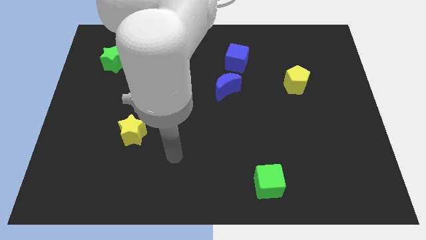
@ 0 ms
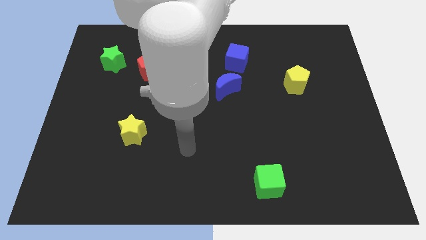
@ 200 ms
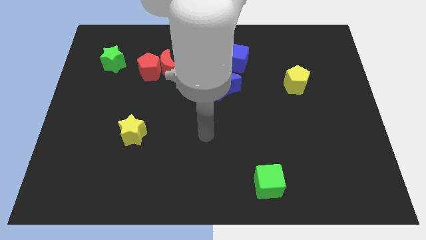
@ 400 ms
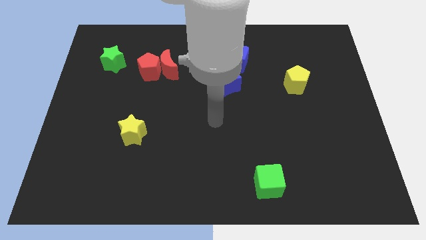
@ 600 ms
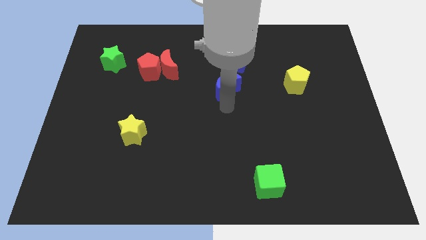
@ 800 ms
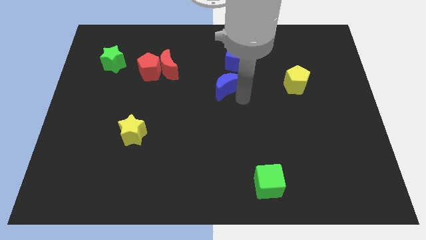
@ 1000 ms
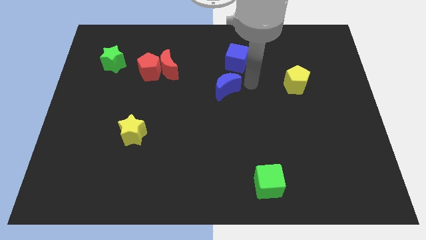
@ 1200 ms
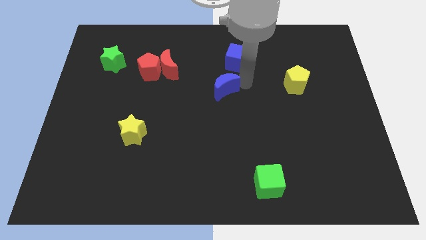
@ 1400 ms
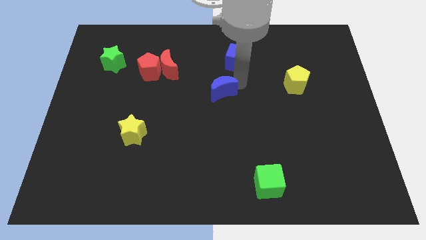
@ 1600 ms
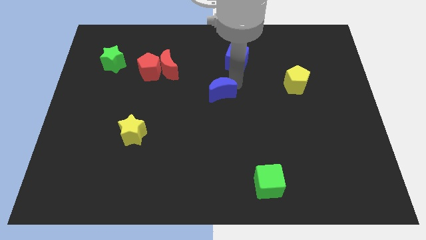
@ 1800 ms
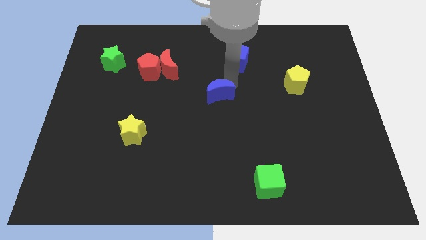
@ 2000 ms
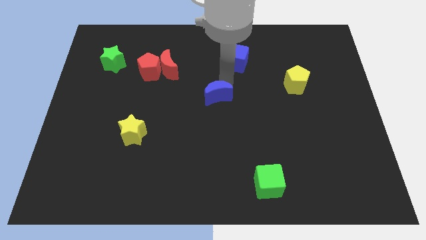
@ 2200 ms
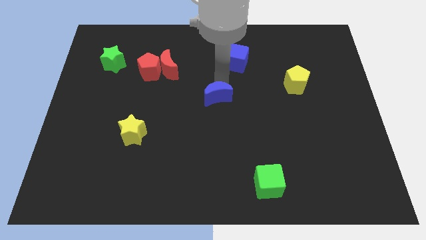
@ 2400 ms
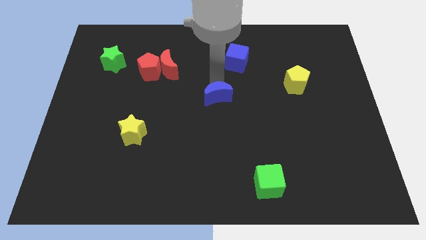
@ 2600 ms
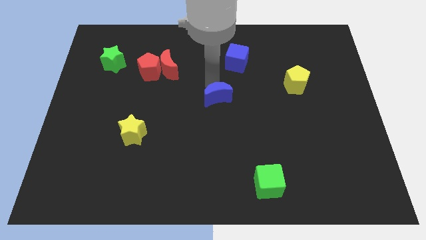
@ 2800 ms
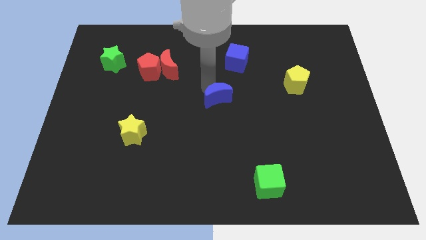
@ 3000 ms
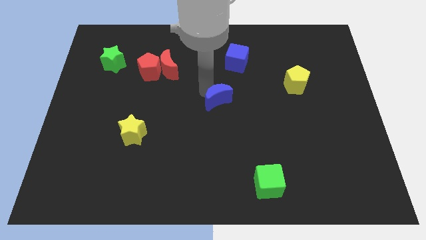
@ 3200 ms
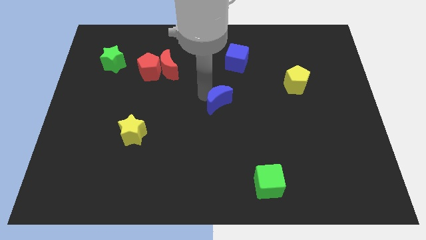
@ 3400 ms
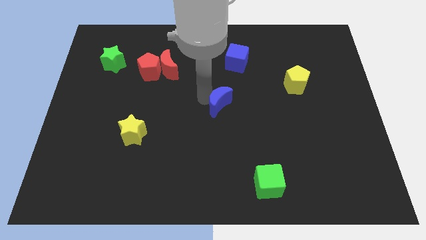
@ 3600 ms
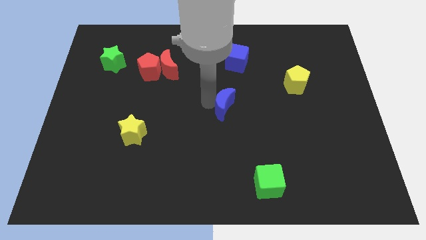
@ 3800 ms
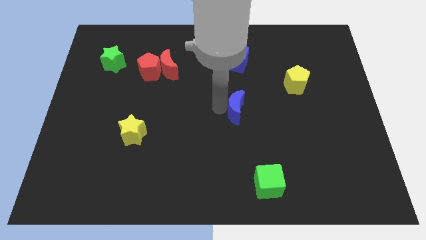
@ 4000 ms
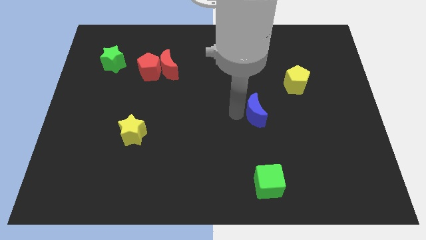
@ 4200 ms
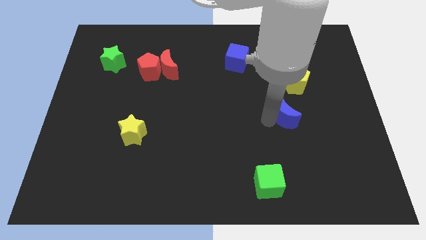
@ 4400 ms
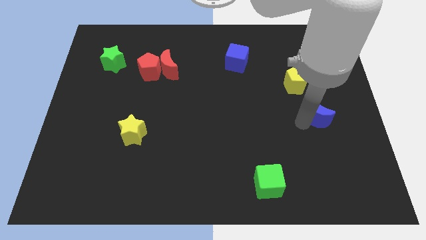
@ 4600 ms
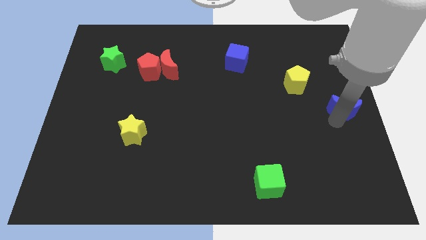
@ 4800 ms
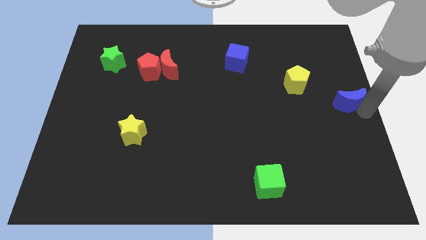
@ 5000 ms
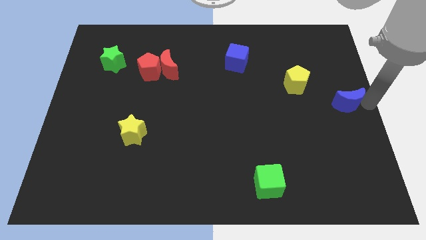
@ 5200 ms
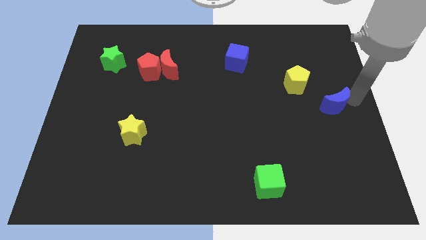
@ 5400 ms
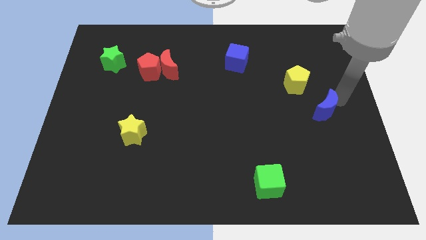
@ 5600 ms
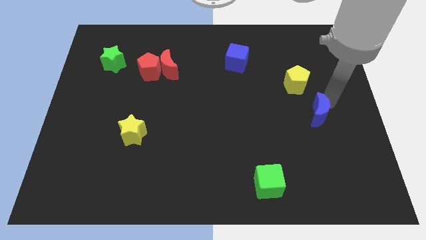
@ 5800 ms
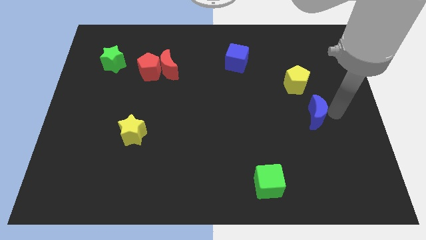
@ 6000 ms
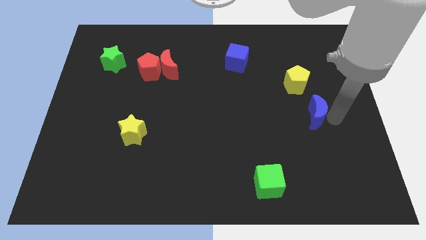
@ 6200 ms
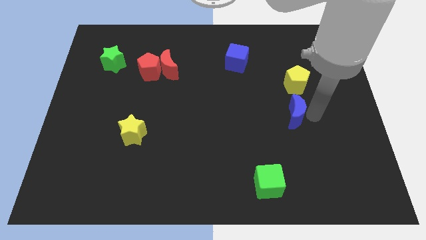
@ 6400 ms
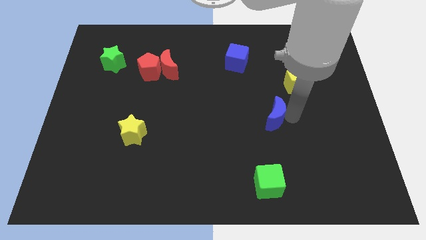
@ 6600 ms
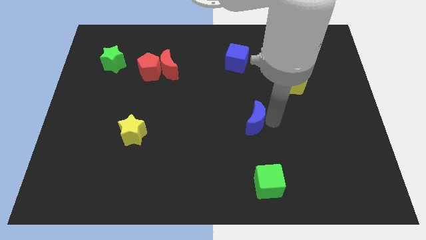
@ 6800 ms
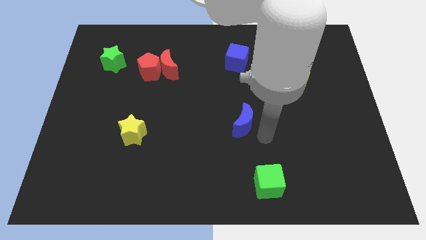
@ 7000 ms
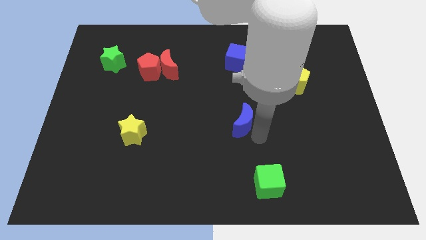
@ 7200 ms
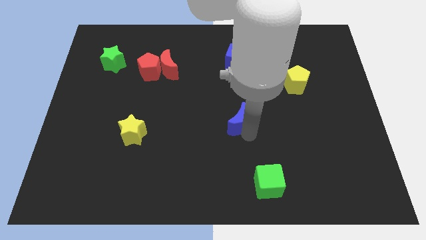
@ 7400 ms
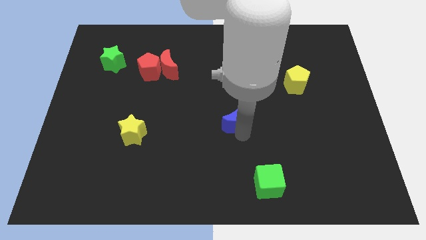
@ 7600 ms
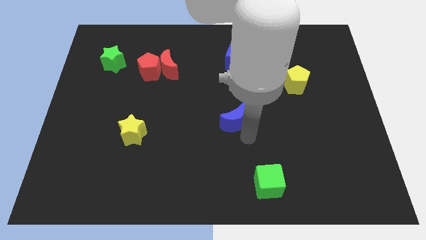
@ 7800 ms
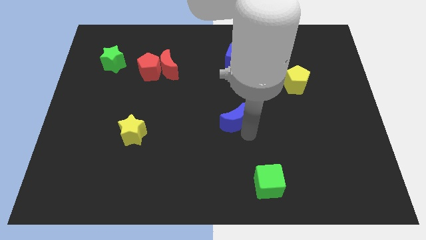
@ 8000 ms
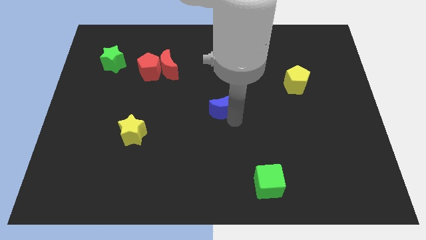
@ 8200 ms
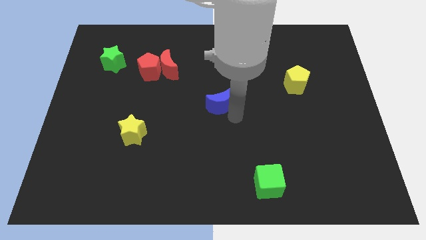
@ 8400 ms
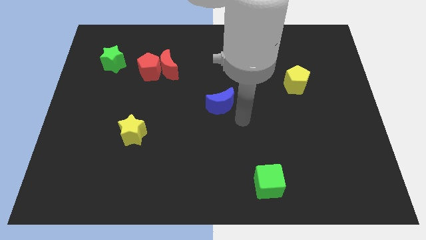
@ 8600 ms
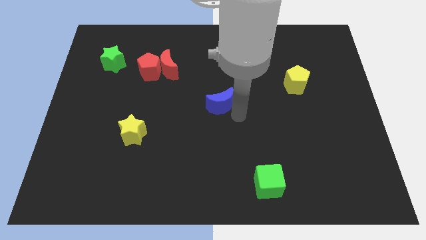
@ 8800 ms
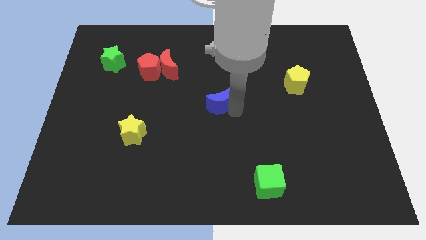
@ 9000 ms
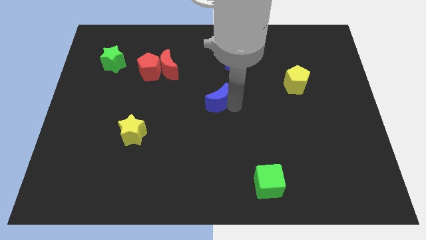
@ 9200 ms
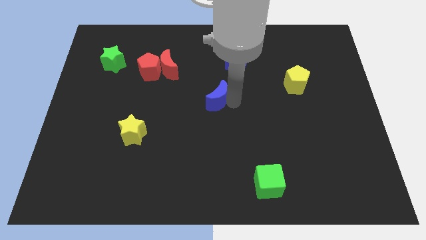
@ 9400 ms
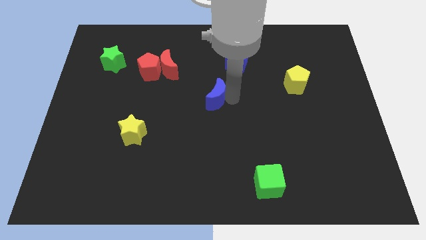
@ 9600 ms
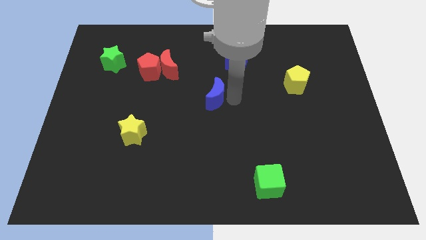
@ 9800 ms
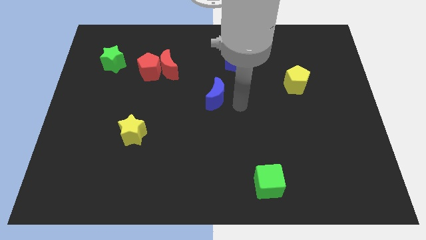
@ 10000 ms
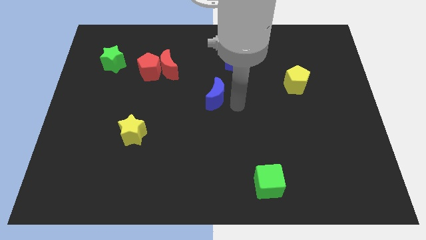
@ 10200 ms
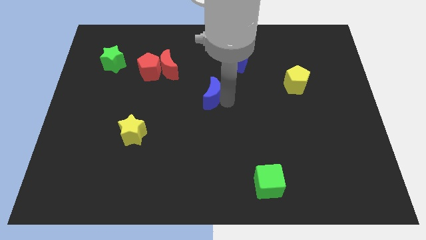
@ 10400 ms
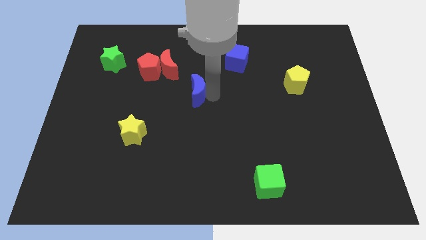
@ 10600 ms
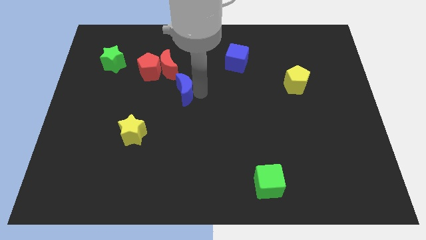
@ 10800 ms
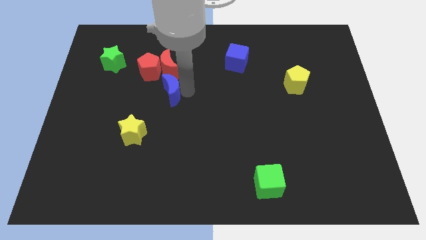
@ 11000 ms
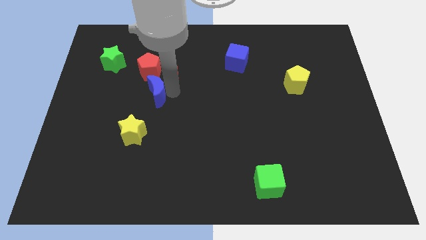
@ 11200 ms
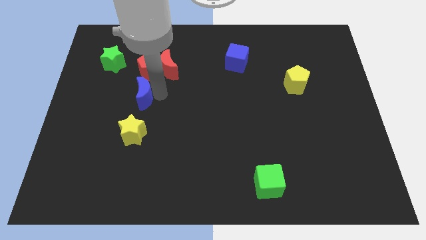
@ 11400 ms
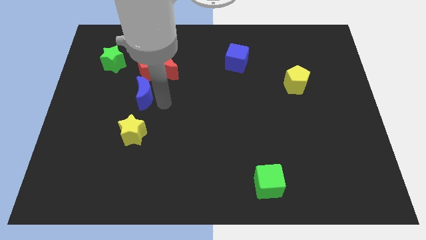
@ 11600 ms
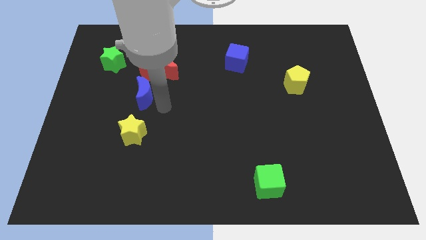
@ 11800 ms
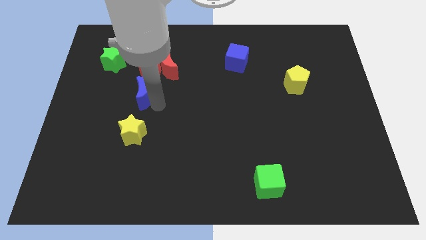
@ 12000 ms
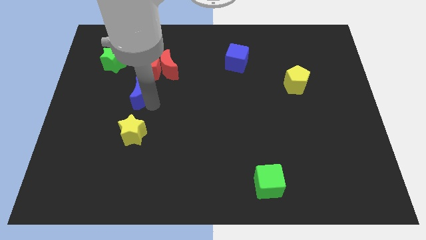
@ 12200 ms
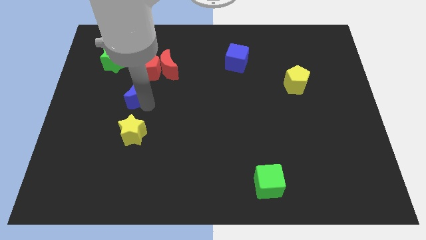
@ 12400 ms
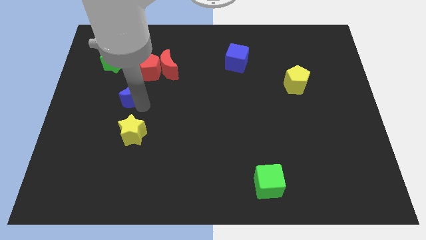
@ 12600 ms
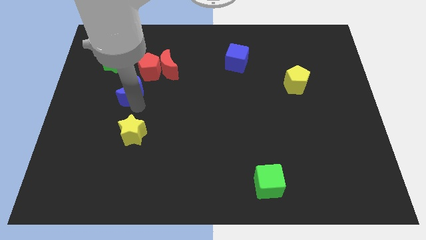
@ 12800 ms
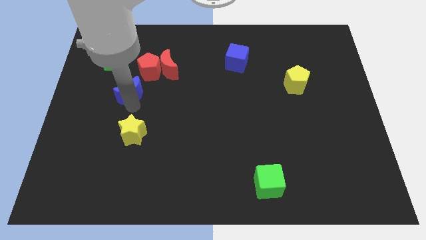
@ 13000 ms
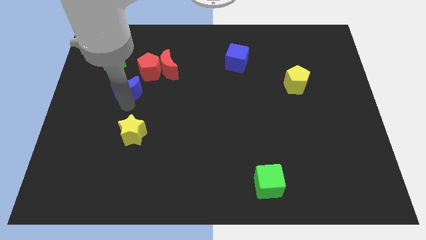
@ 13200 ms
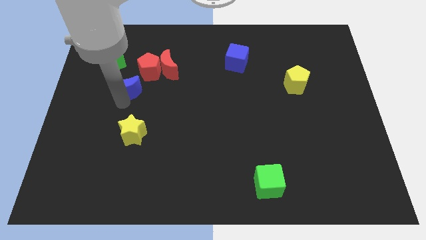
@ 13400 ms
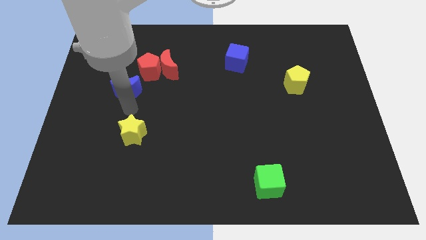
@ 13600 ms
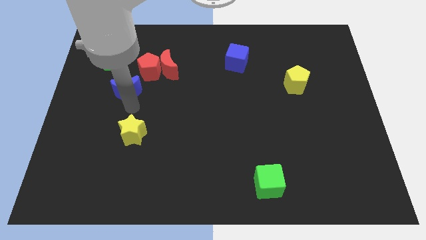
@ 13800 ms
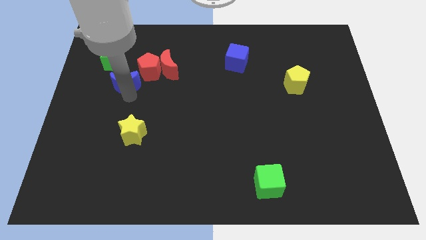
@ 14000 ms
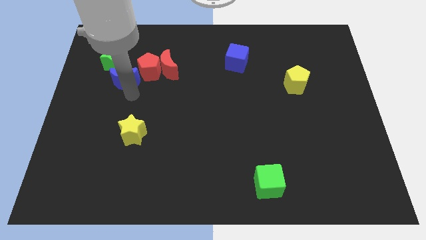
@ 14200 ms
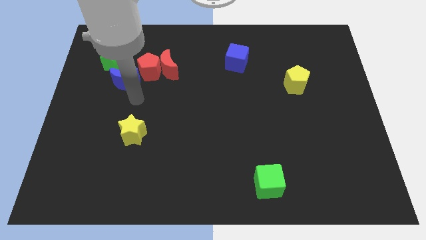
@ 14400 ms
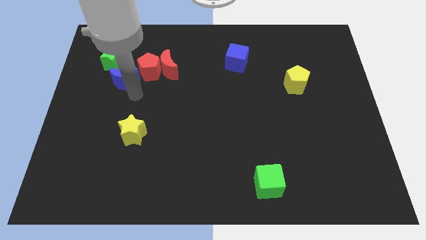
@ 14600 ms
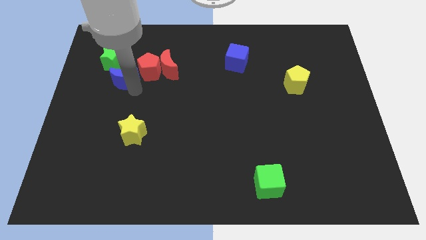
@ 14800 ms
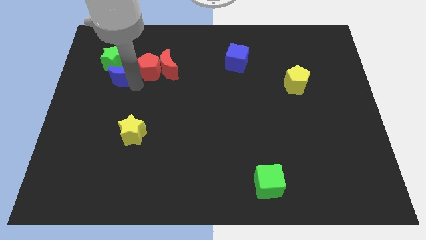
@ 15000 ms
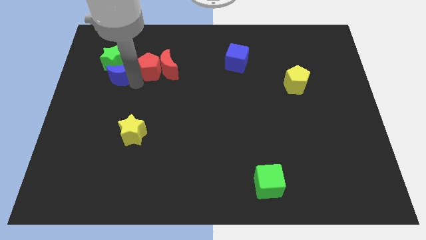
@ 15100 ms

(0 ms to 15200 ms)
put the blue moon close to the green star
